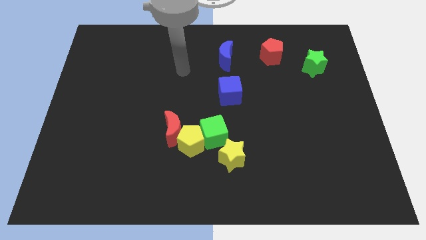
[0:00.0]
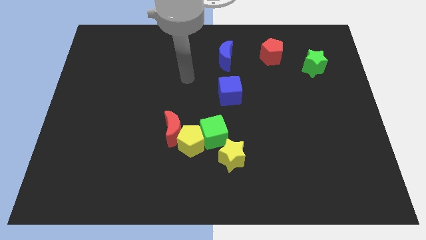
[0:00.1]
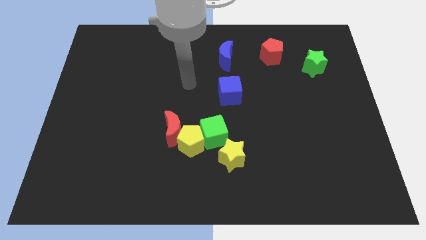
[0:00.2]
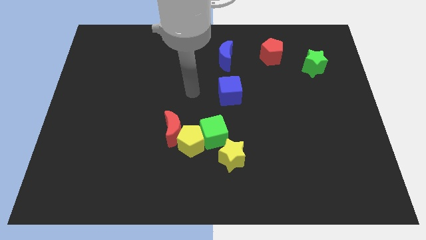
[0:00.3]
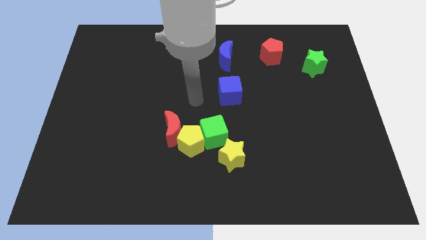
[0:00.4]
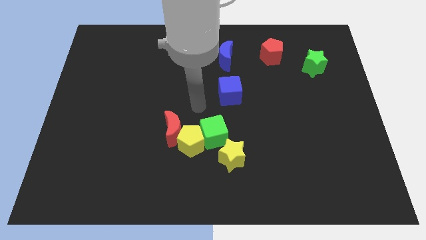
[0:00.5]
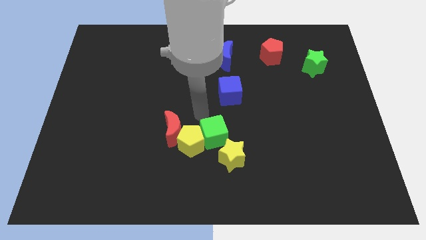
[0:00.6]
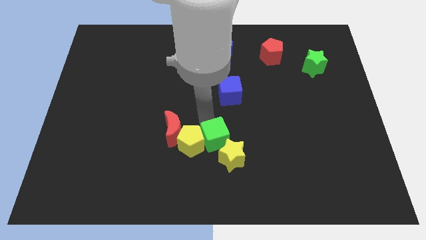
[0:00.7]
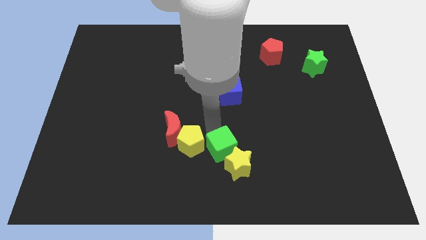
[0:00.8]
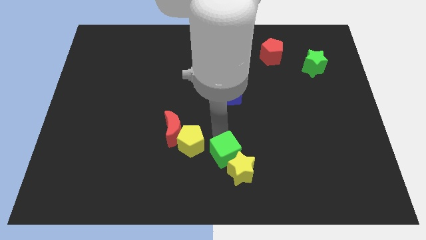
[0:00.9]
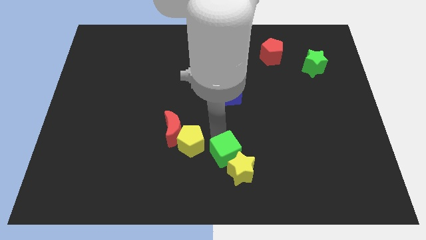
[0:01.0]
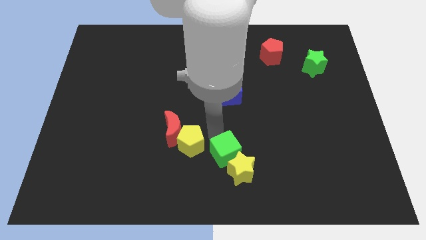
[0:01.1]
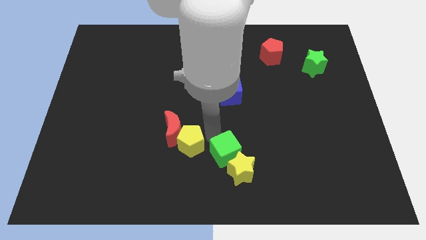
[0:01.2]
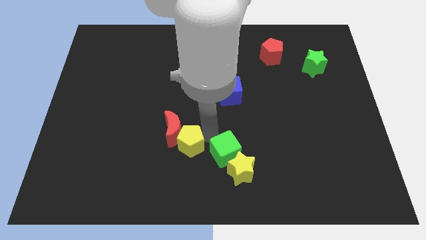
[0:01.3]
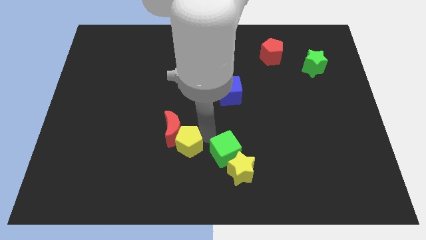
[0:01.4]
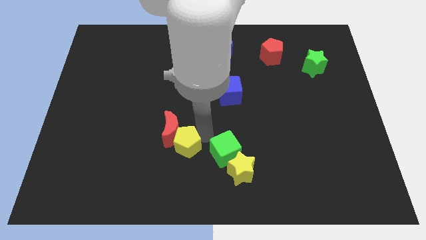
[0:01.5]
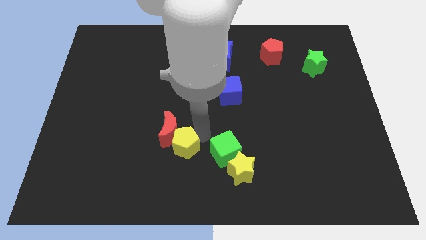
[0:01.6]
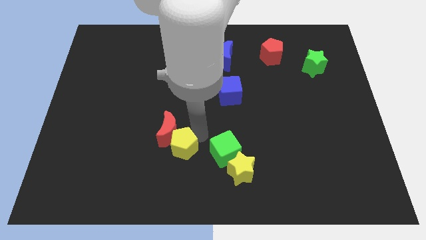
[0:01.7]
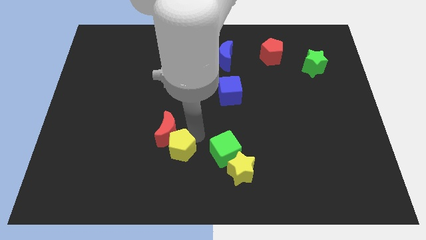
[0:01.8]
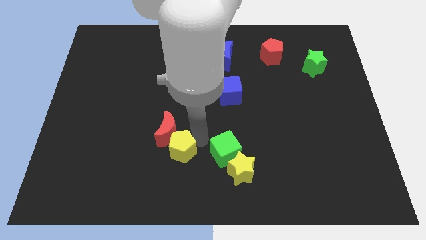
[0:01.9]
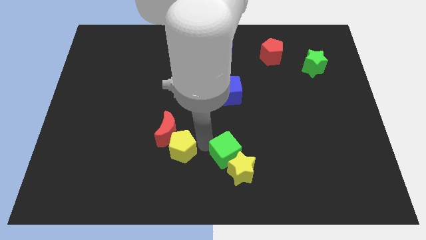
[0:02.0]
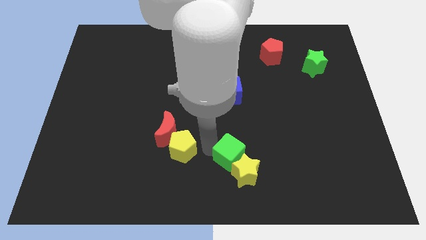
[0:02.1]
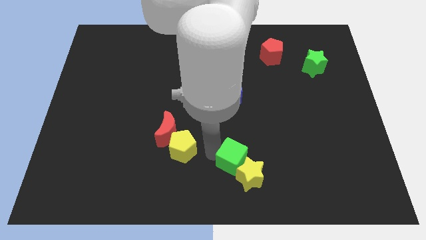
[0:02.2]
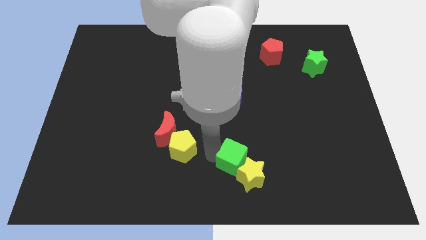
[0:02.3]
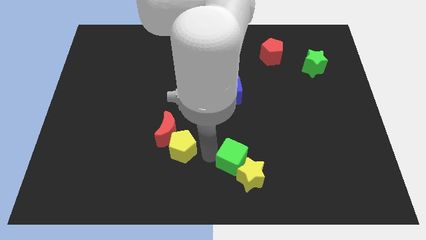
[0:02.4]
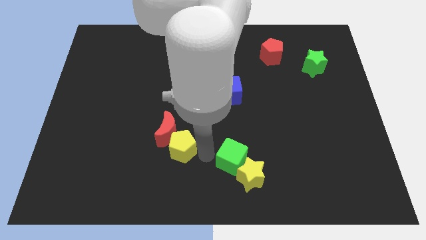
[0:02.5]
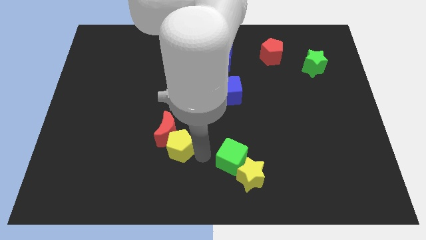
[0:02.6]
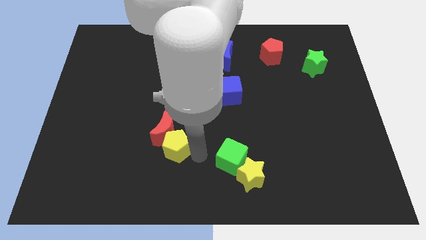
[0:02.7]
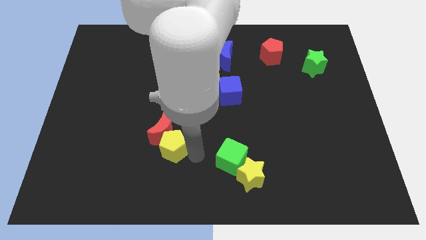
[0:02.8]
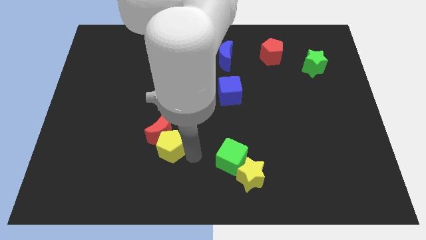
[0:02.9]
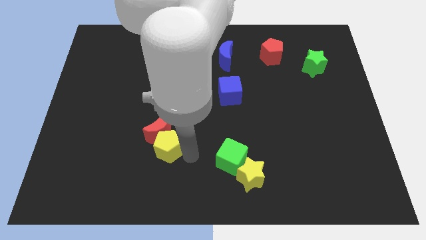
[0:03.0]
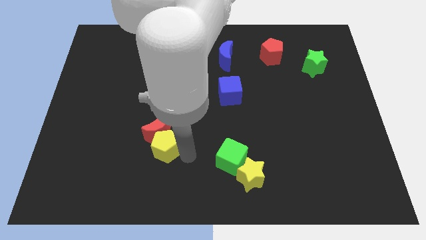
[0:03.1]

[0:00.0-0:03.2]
move the yellow pentagon away from the group of blocks

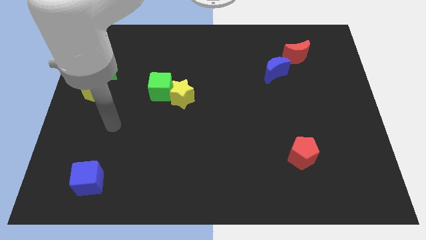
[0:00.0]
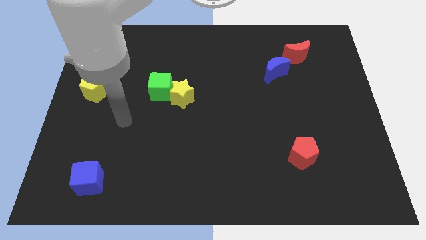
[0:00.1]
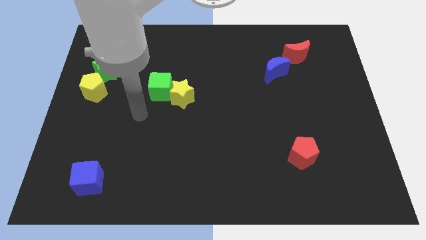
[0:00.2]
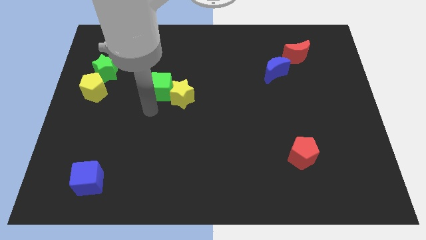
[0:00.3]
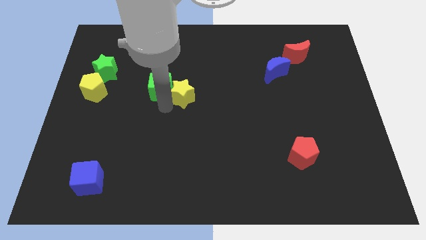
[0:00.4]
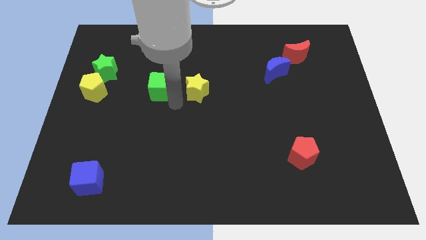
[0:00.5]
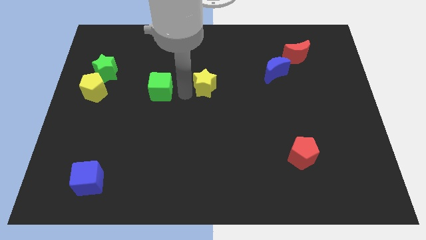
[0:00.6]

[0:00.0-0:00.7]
move the green cube away from the yellow star

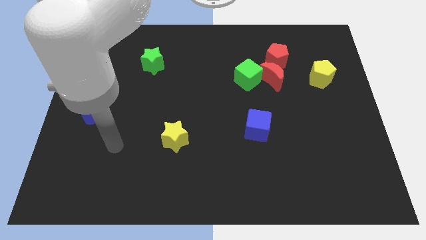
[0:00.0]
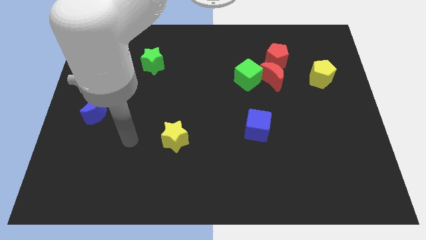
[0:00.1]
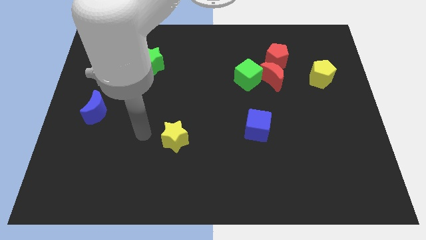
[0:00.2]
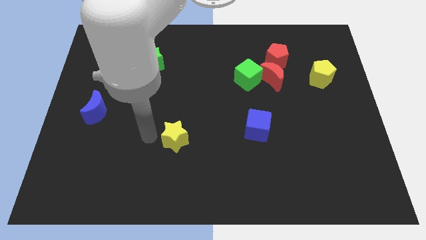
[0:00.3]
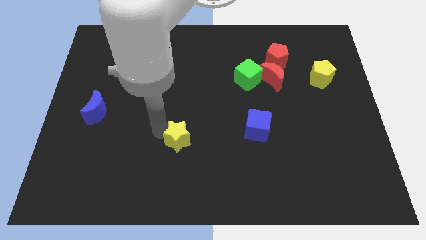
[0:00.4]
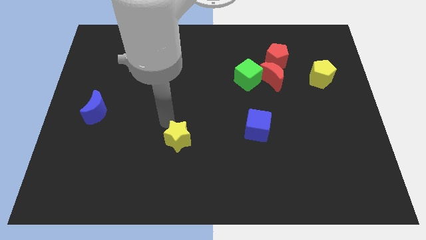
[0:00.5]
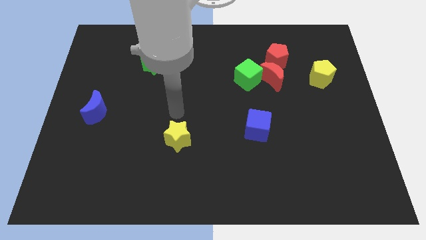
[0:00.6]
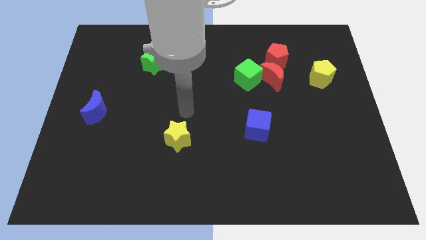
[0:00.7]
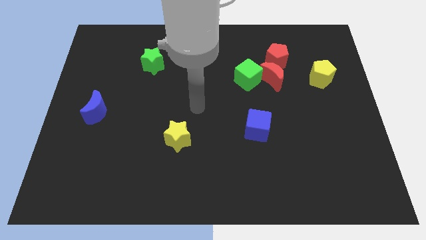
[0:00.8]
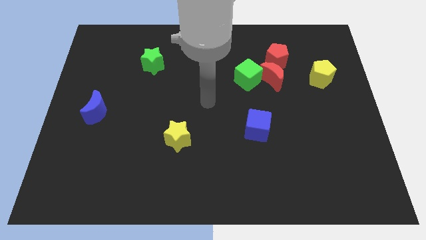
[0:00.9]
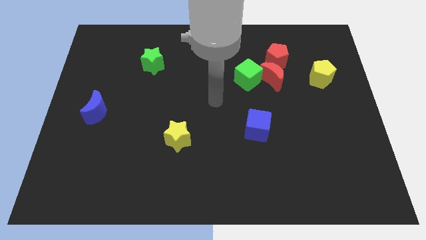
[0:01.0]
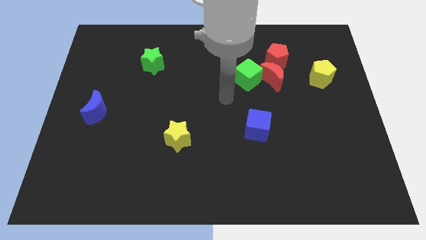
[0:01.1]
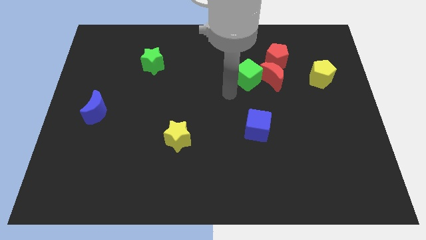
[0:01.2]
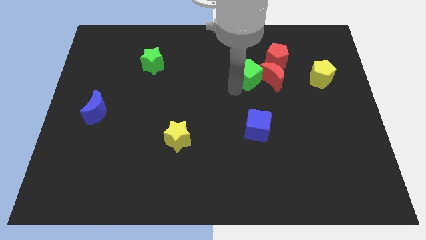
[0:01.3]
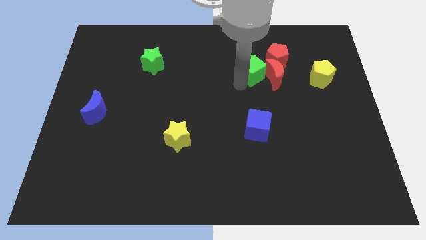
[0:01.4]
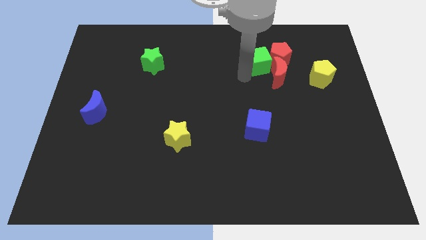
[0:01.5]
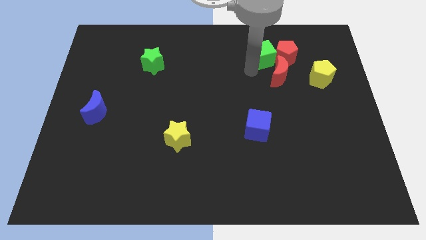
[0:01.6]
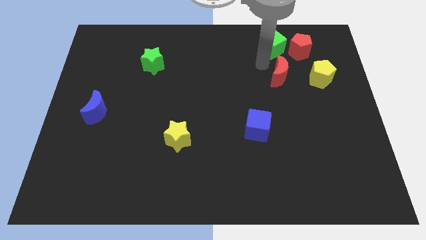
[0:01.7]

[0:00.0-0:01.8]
separate the red moon from the green cube and red pentagon

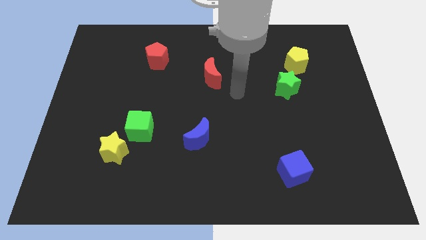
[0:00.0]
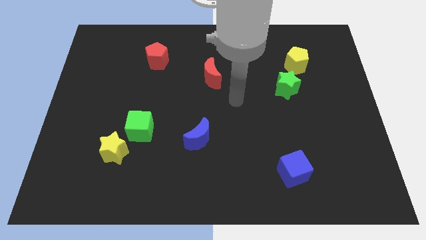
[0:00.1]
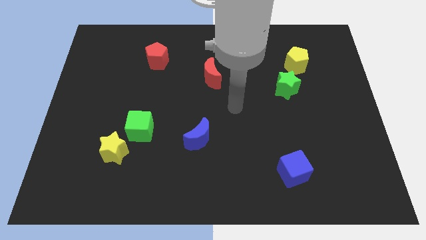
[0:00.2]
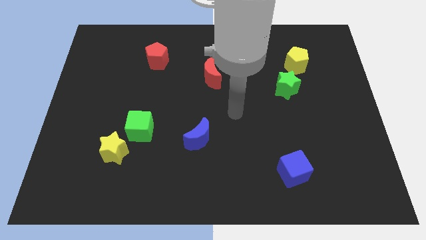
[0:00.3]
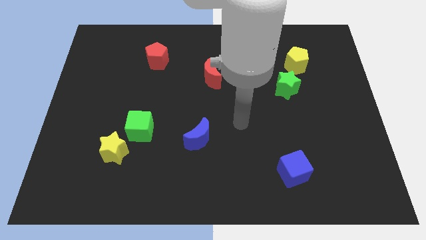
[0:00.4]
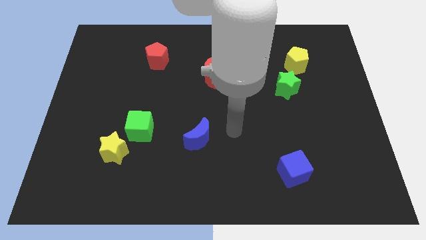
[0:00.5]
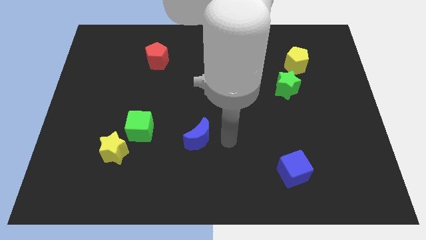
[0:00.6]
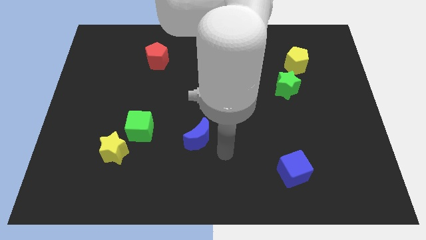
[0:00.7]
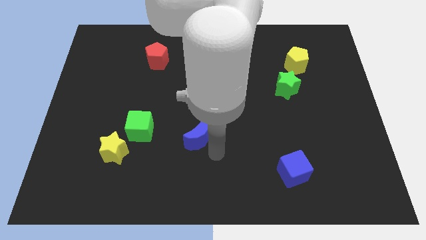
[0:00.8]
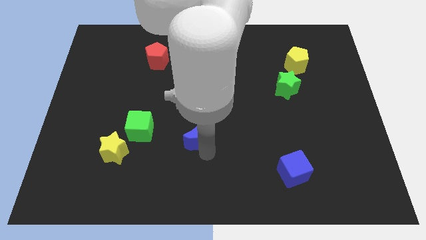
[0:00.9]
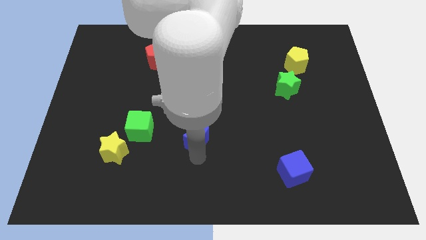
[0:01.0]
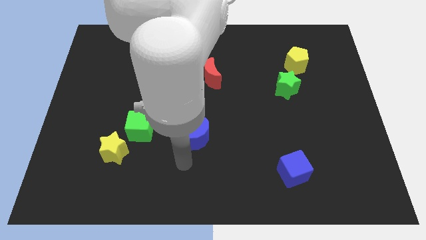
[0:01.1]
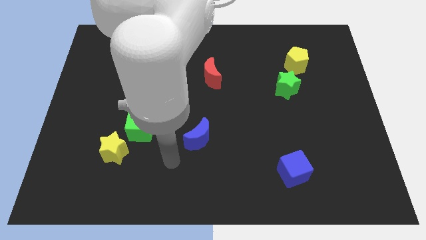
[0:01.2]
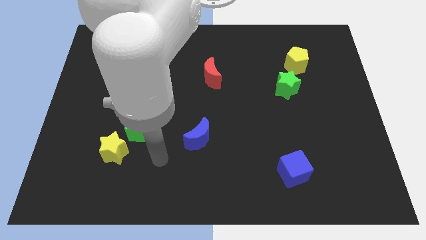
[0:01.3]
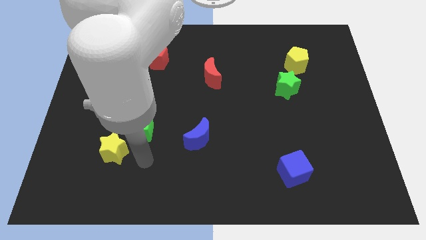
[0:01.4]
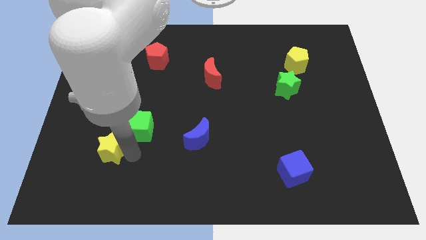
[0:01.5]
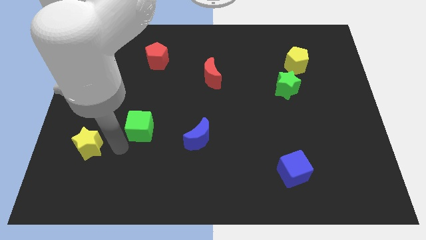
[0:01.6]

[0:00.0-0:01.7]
separate the green cube from the yellow star

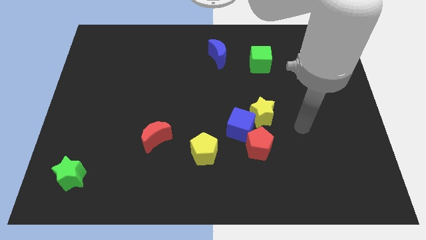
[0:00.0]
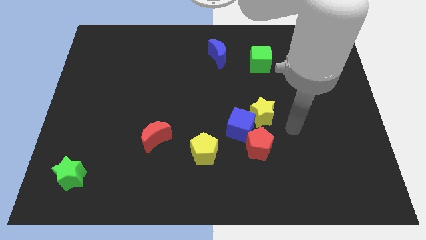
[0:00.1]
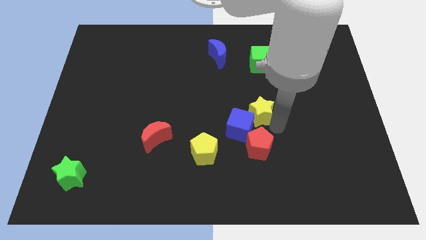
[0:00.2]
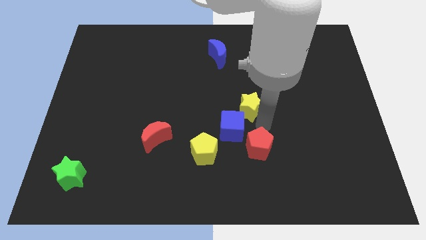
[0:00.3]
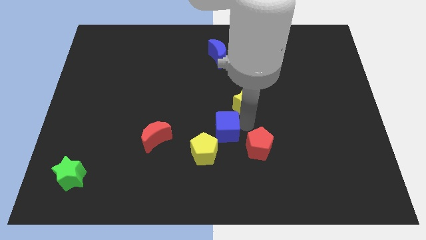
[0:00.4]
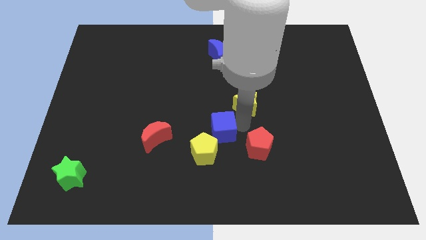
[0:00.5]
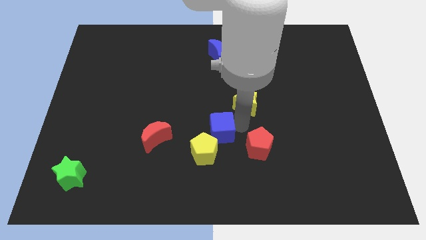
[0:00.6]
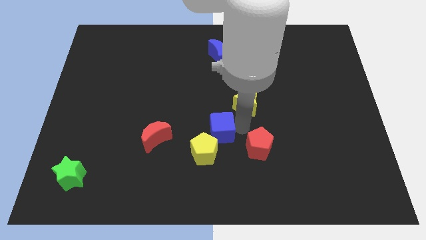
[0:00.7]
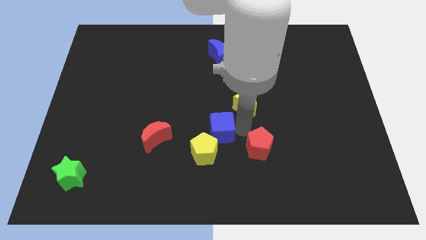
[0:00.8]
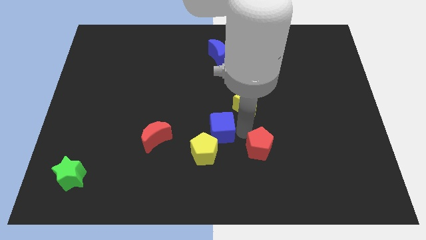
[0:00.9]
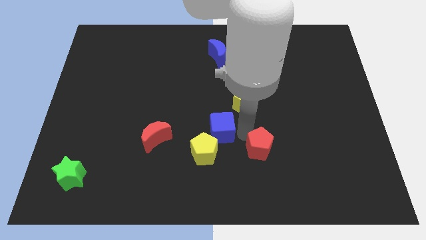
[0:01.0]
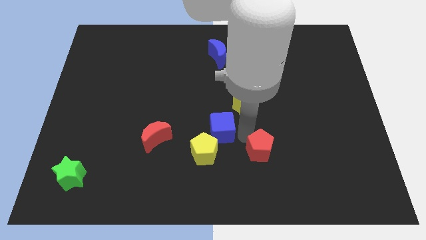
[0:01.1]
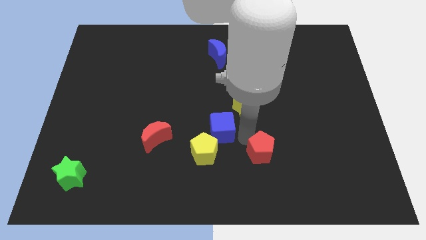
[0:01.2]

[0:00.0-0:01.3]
pull the red pentagon apart from the blue cube and yellow star

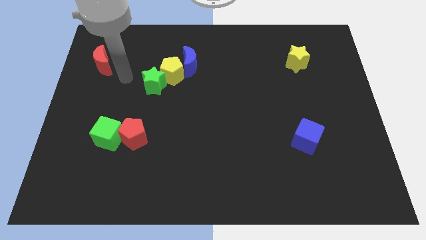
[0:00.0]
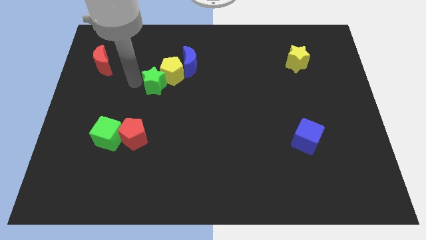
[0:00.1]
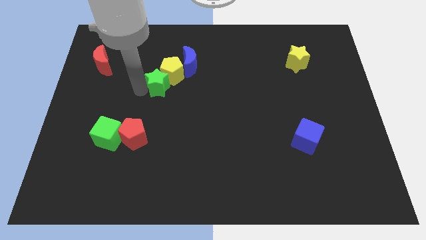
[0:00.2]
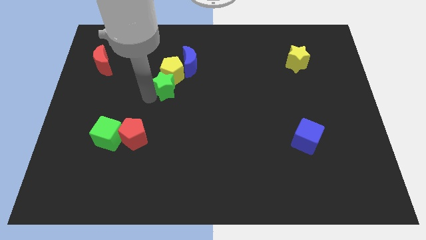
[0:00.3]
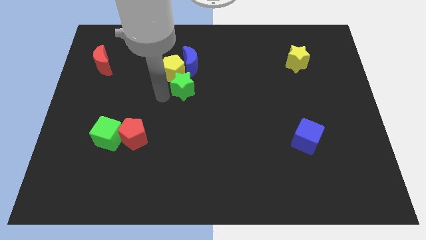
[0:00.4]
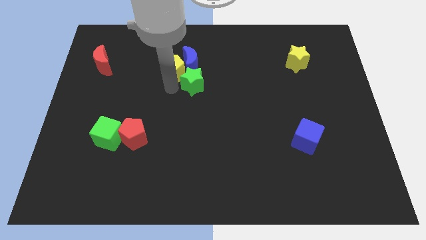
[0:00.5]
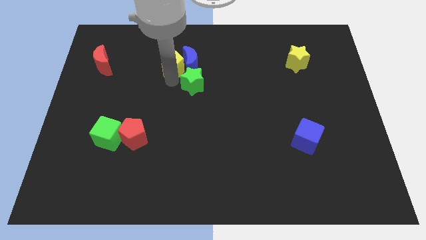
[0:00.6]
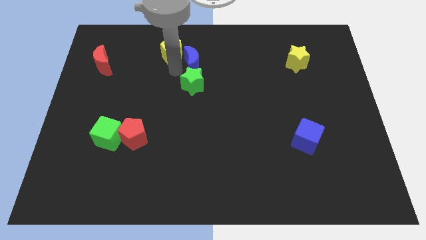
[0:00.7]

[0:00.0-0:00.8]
move the green star away from the yellow pentagon
